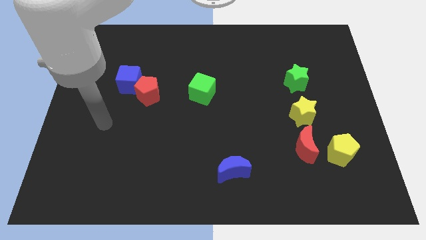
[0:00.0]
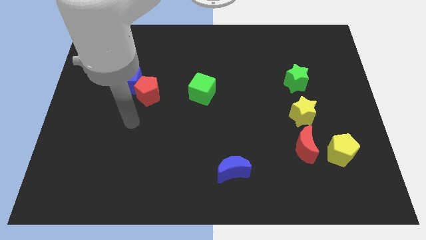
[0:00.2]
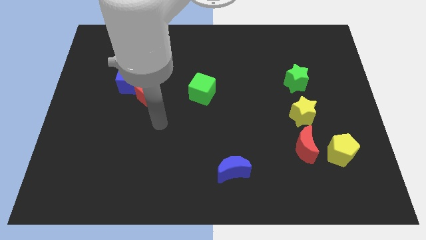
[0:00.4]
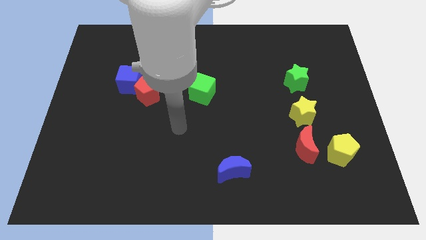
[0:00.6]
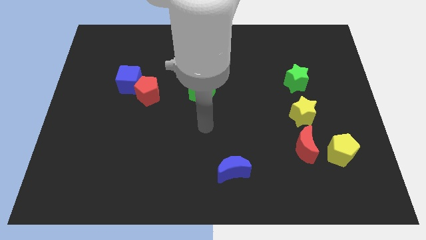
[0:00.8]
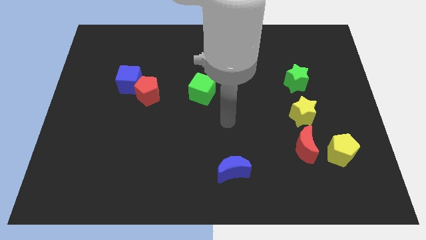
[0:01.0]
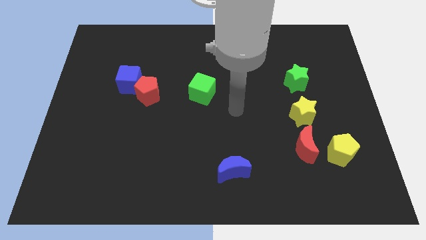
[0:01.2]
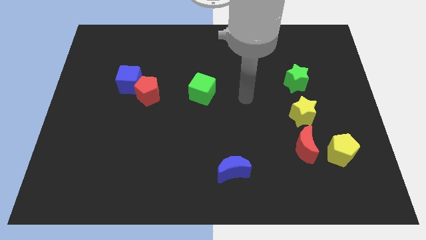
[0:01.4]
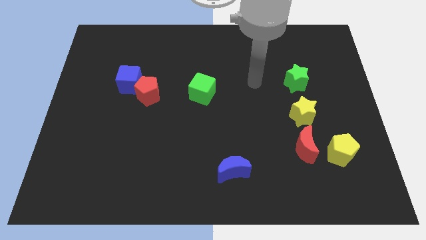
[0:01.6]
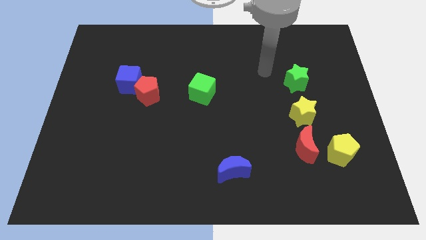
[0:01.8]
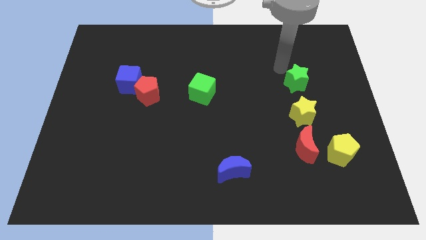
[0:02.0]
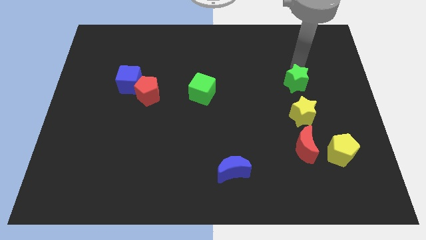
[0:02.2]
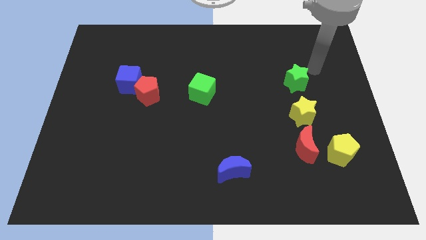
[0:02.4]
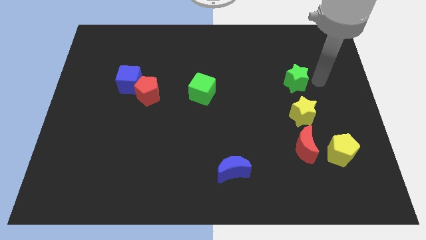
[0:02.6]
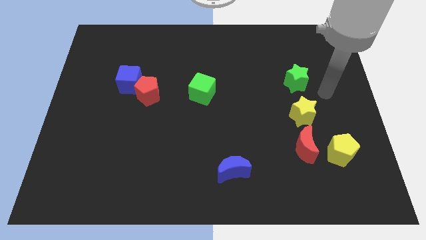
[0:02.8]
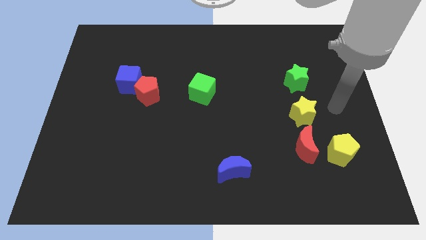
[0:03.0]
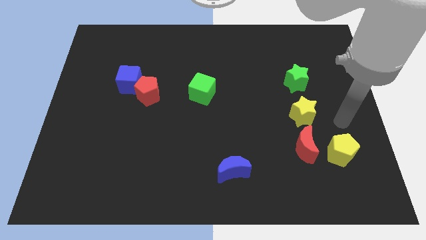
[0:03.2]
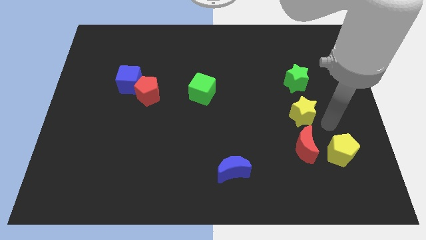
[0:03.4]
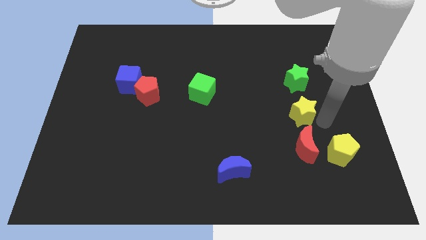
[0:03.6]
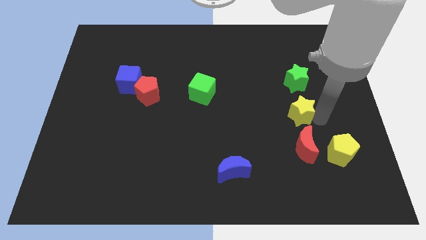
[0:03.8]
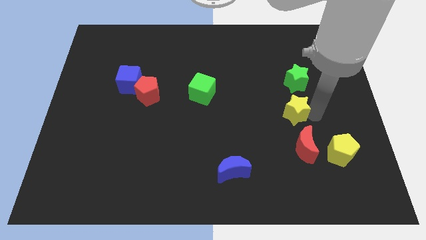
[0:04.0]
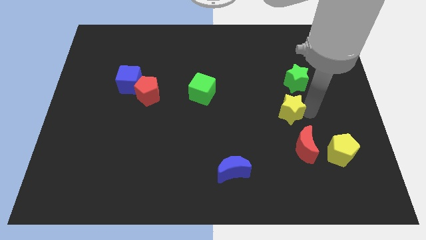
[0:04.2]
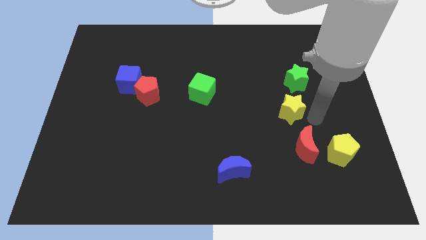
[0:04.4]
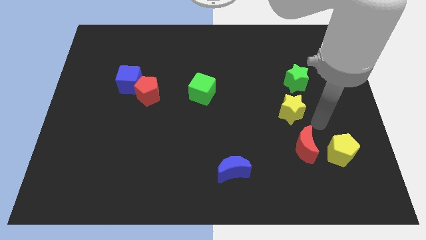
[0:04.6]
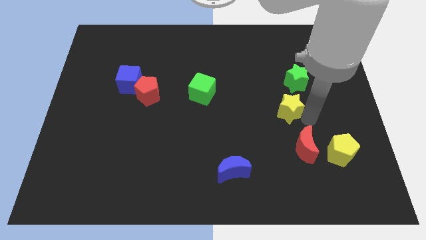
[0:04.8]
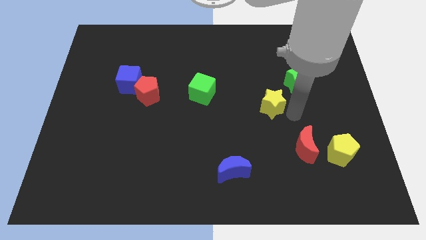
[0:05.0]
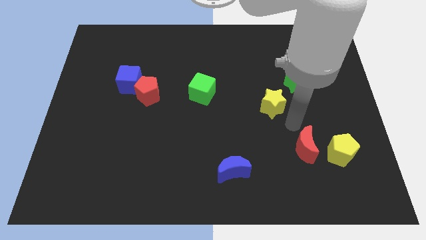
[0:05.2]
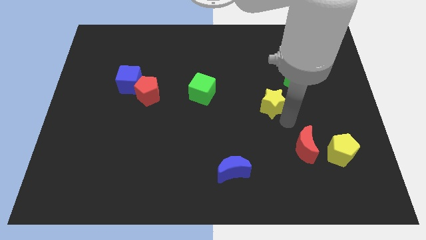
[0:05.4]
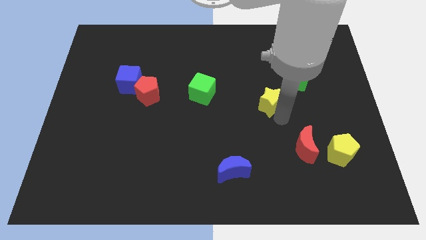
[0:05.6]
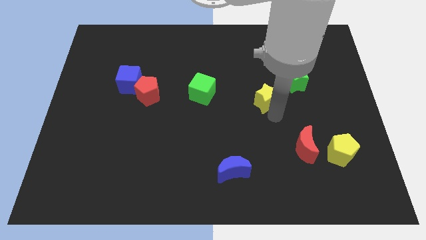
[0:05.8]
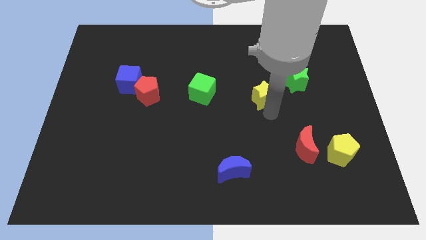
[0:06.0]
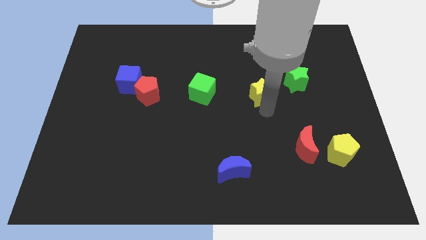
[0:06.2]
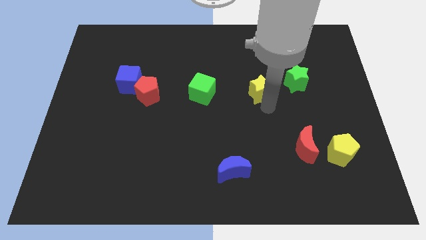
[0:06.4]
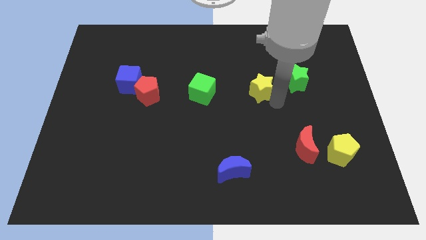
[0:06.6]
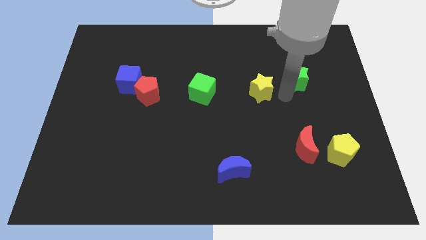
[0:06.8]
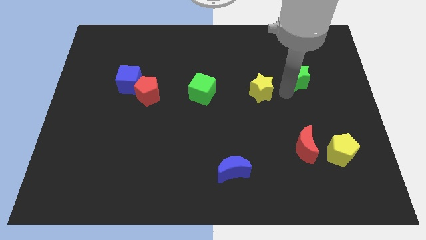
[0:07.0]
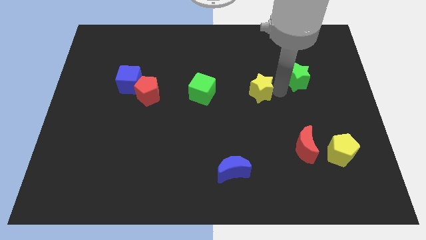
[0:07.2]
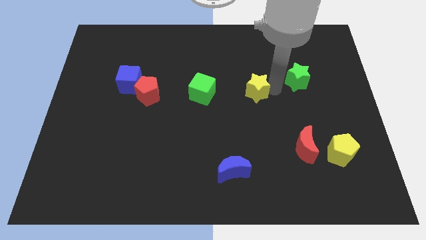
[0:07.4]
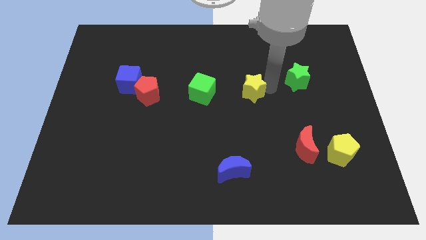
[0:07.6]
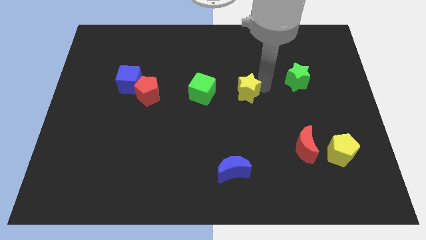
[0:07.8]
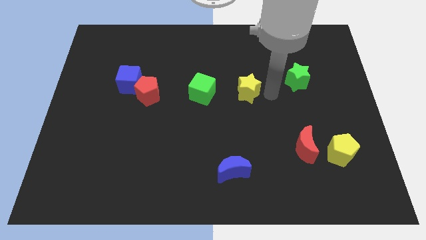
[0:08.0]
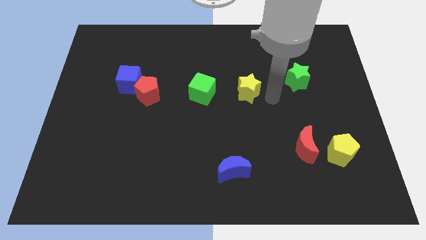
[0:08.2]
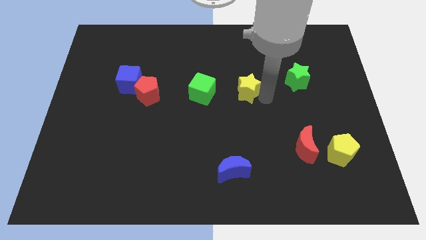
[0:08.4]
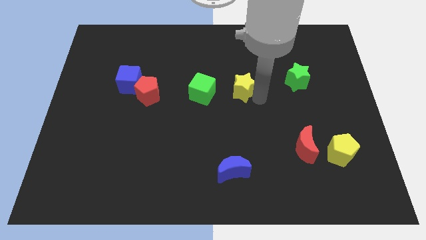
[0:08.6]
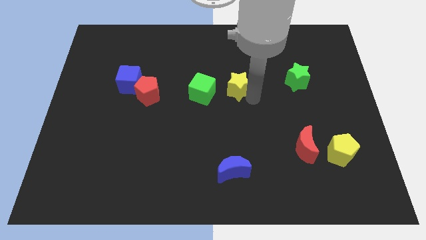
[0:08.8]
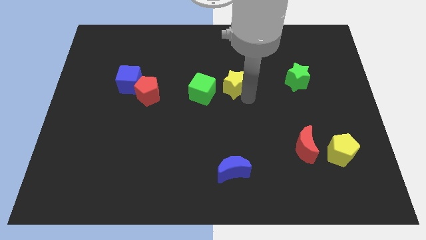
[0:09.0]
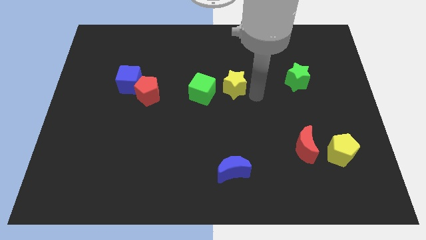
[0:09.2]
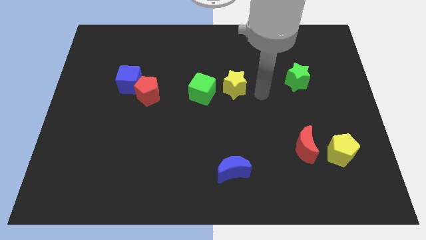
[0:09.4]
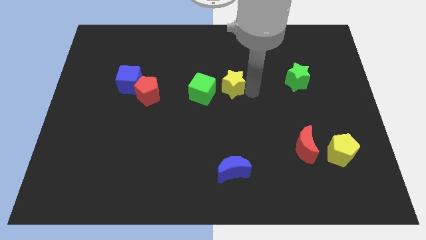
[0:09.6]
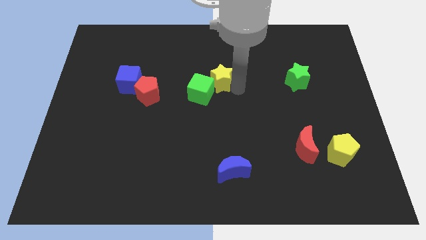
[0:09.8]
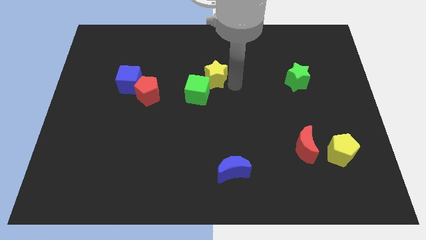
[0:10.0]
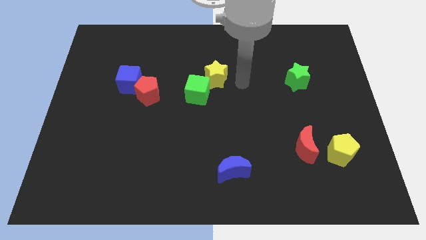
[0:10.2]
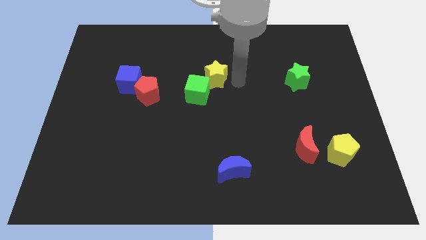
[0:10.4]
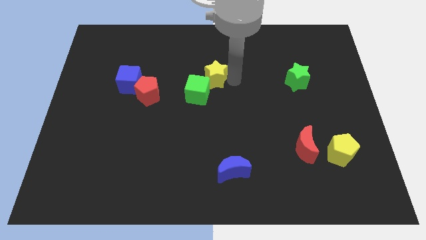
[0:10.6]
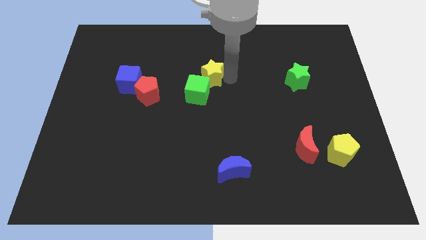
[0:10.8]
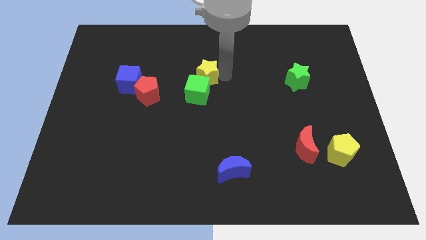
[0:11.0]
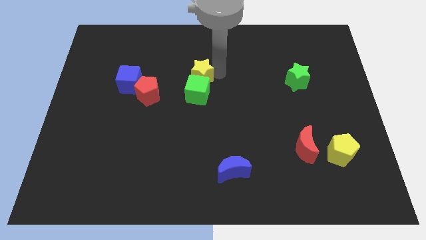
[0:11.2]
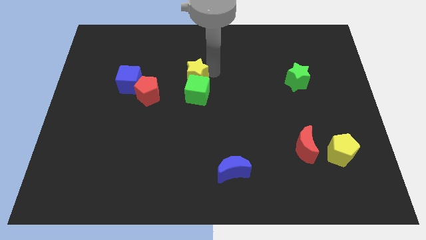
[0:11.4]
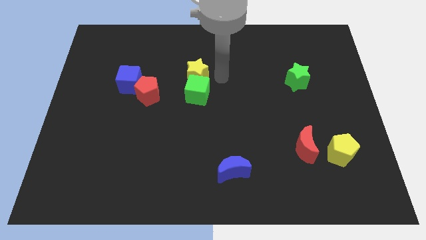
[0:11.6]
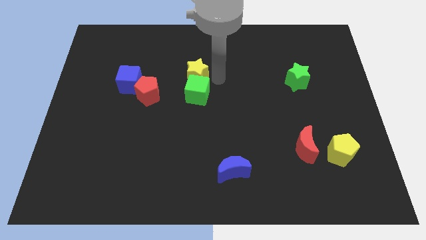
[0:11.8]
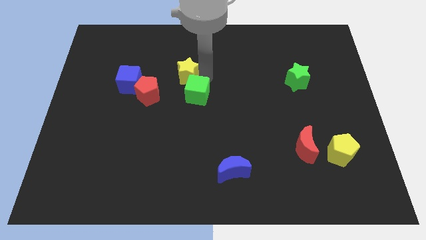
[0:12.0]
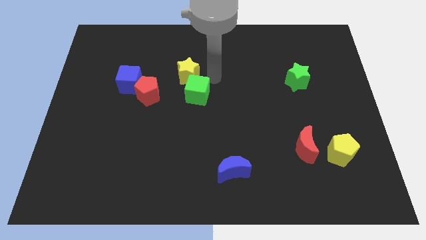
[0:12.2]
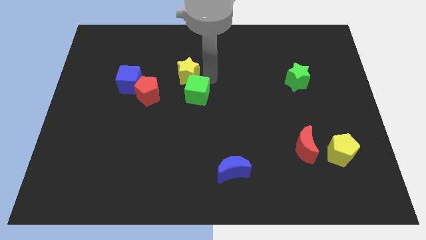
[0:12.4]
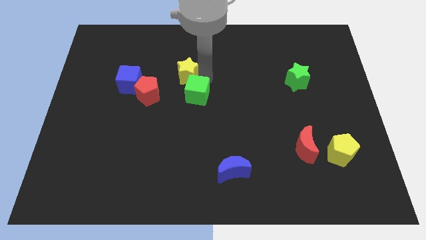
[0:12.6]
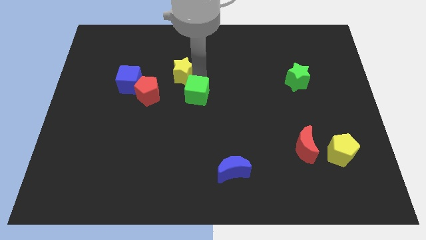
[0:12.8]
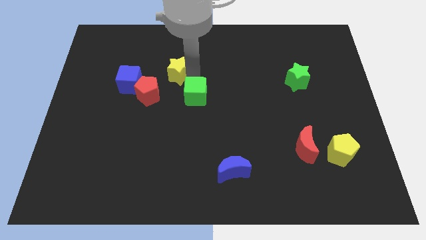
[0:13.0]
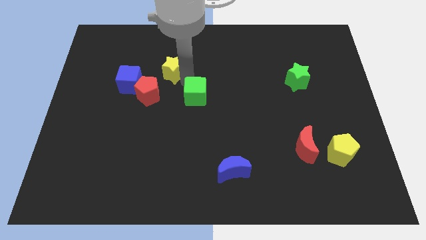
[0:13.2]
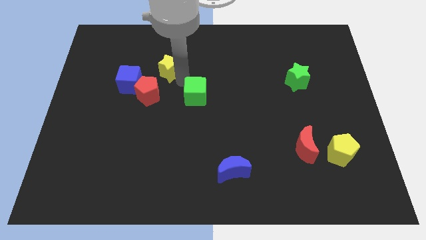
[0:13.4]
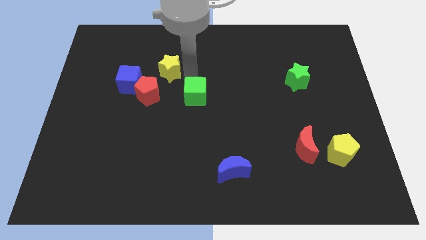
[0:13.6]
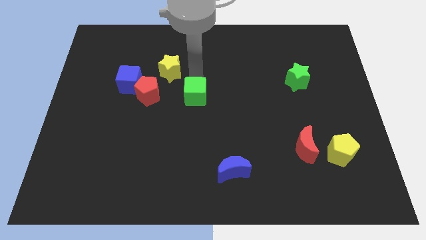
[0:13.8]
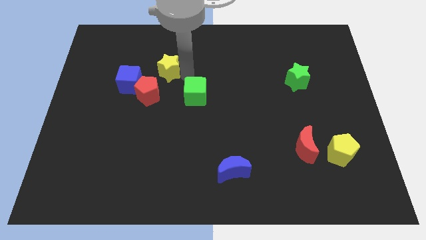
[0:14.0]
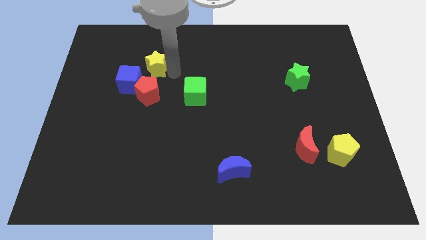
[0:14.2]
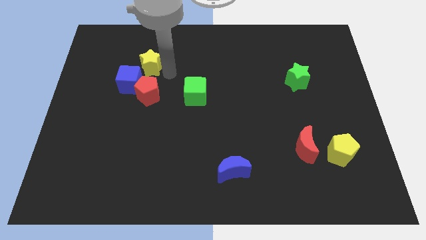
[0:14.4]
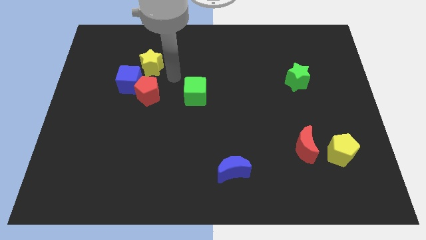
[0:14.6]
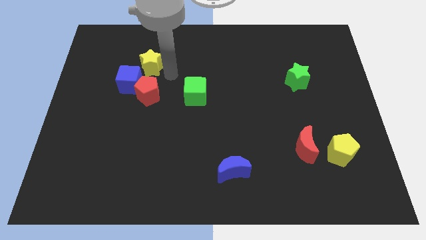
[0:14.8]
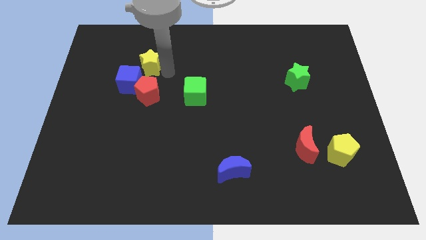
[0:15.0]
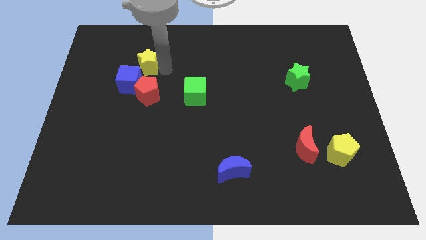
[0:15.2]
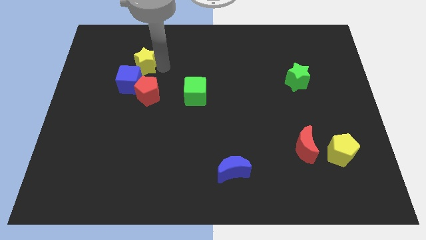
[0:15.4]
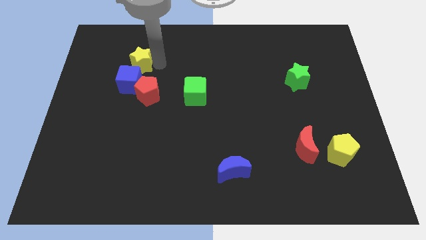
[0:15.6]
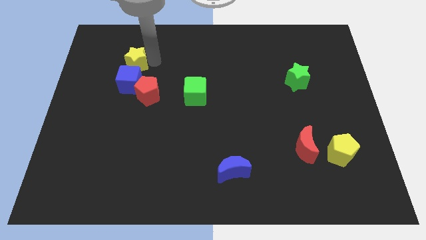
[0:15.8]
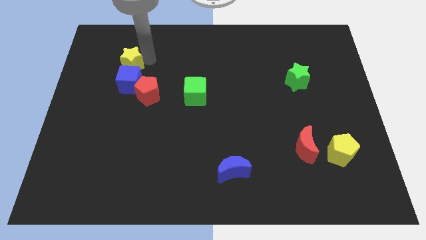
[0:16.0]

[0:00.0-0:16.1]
move the yellow star diagonally up and to the left of the blue cube
